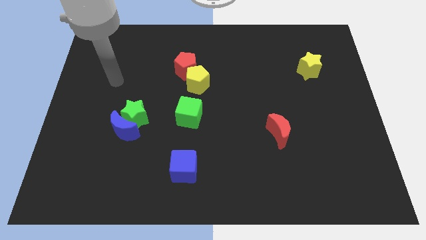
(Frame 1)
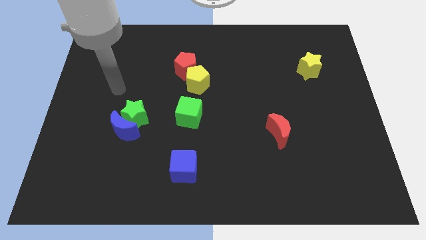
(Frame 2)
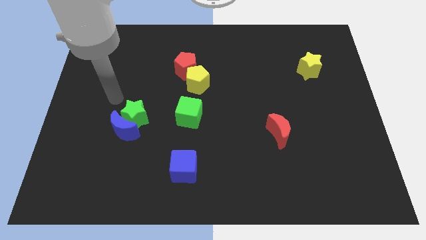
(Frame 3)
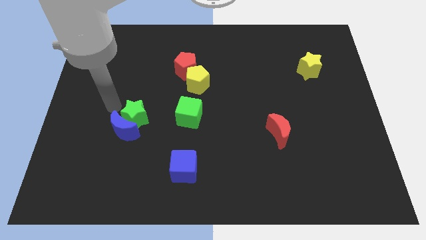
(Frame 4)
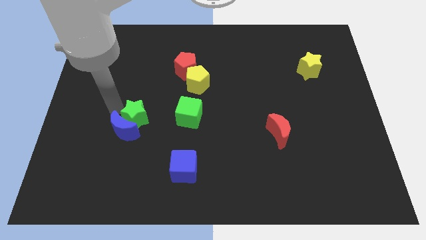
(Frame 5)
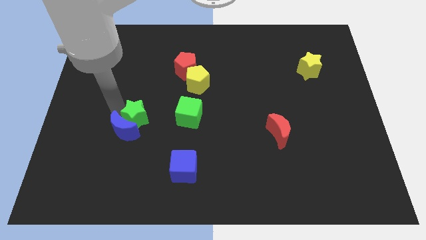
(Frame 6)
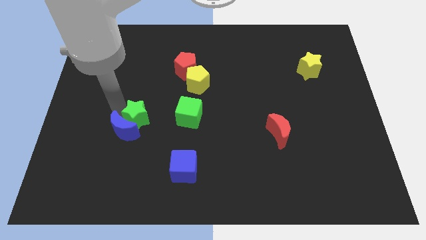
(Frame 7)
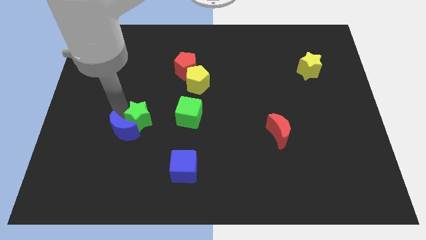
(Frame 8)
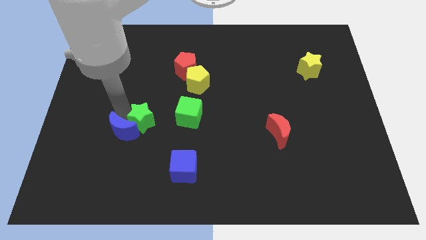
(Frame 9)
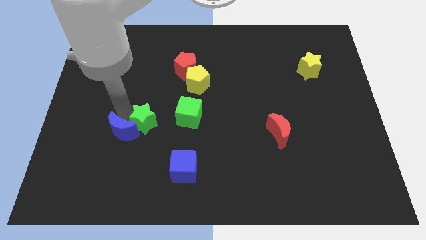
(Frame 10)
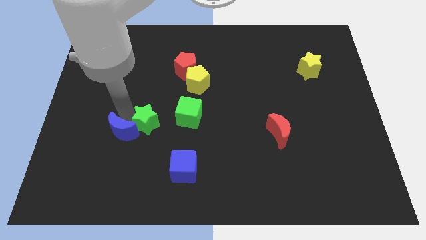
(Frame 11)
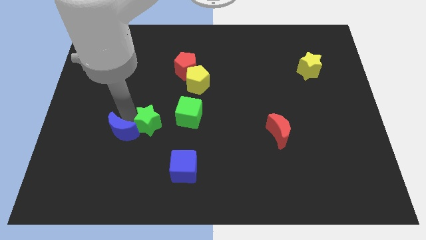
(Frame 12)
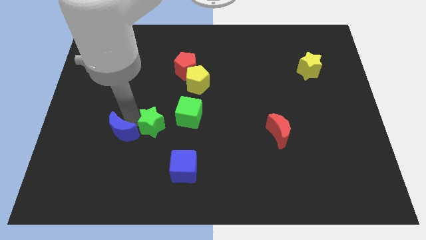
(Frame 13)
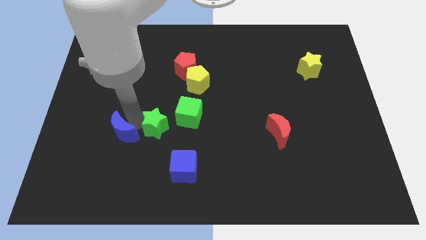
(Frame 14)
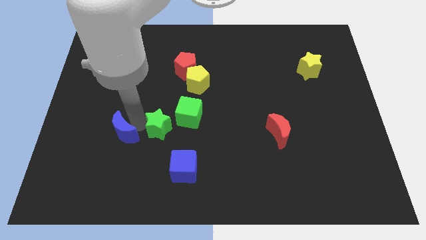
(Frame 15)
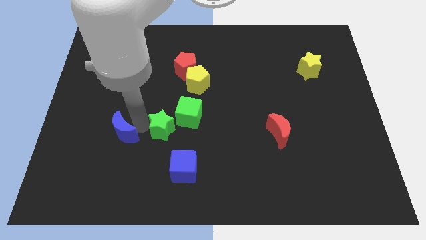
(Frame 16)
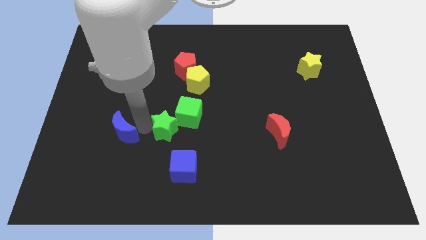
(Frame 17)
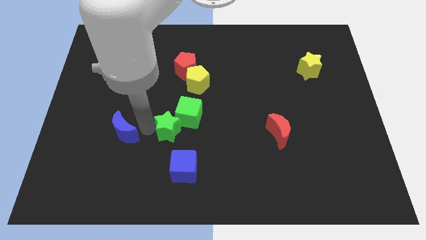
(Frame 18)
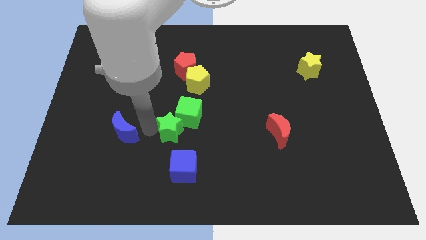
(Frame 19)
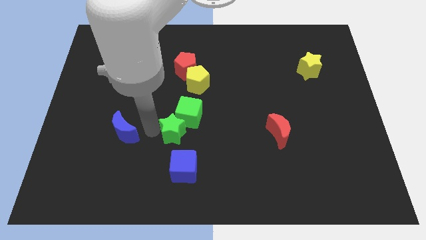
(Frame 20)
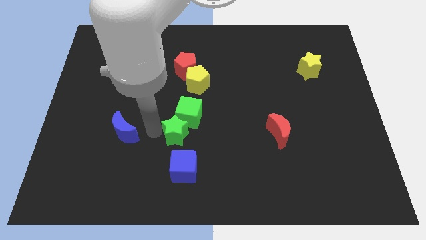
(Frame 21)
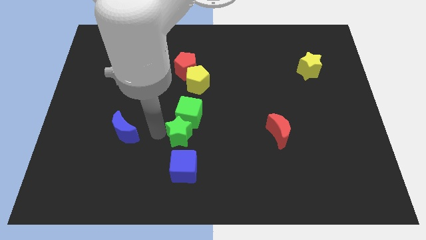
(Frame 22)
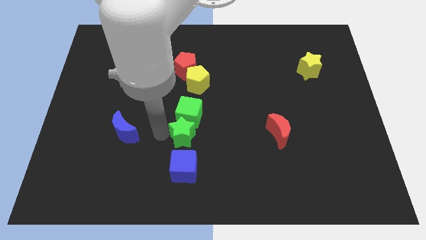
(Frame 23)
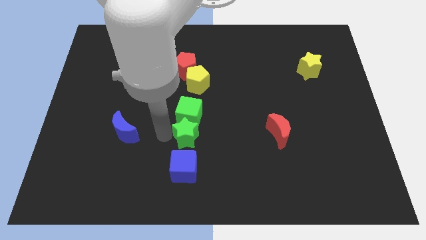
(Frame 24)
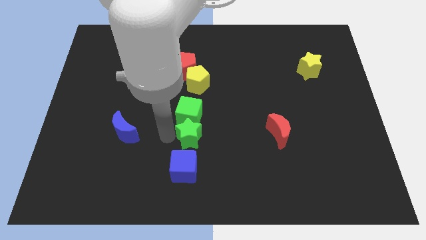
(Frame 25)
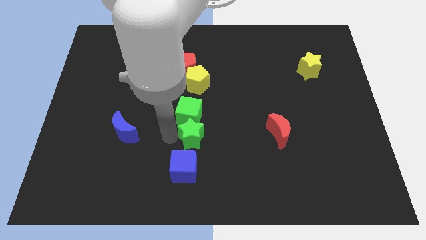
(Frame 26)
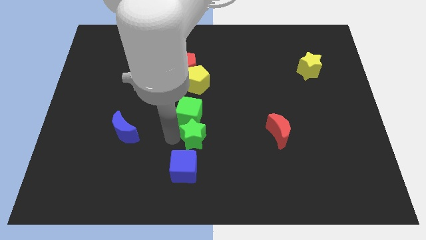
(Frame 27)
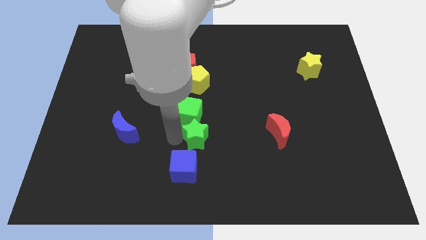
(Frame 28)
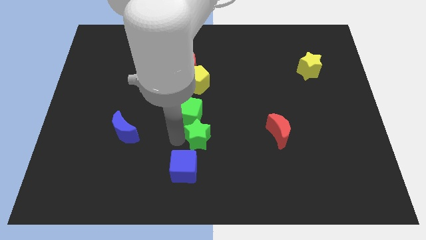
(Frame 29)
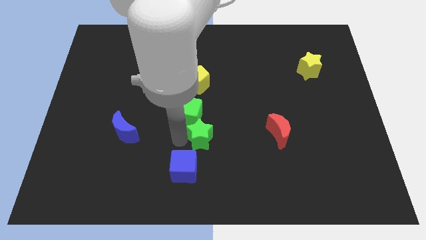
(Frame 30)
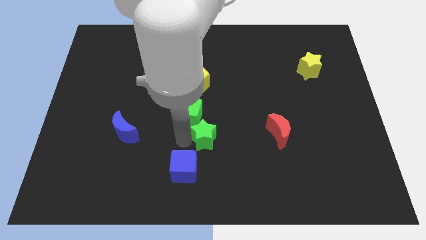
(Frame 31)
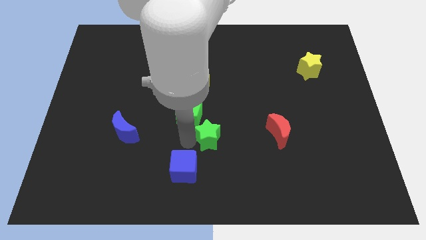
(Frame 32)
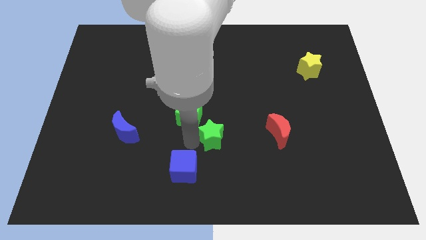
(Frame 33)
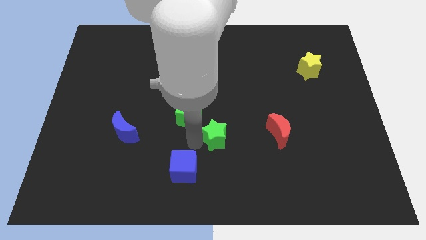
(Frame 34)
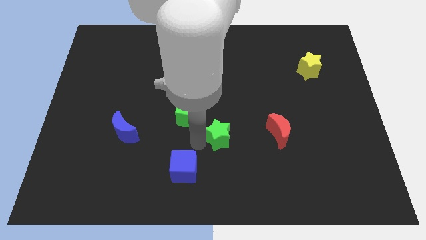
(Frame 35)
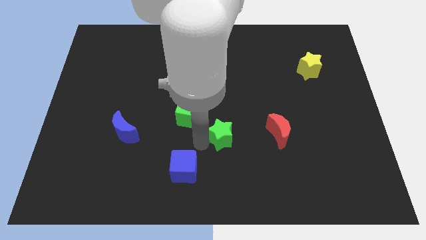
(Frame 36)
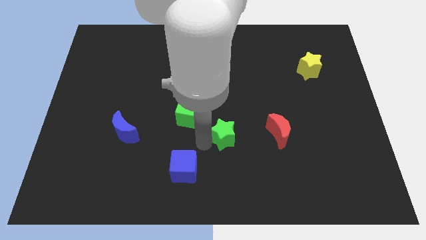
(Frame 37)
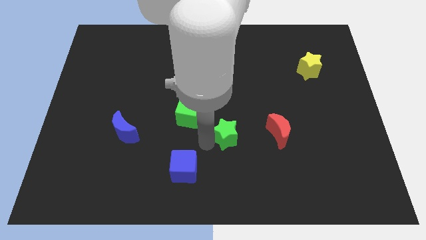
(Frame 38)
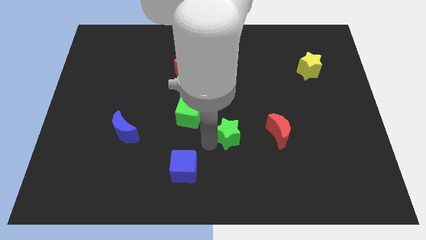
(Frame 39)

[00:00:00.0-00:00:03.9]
push the green star to the right

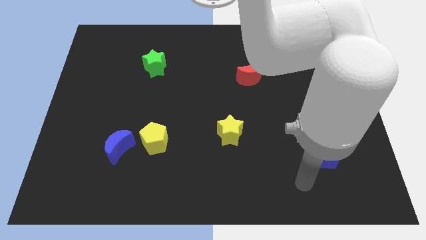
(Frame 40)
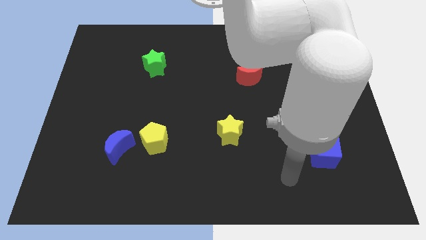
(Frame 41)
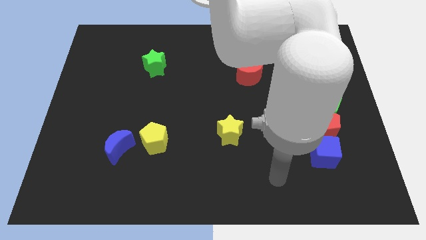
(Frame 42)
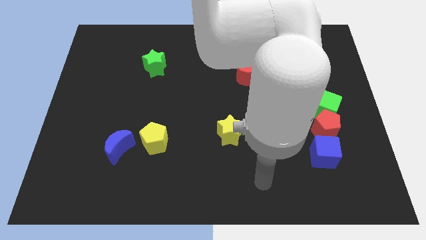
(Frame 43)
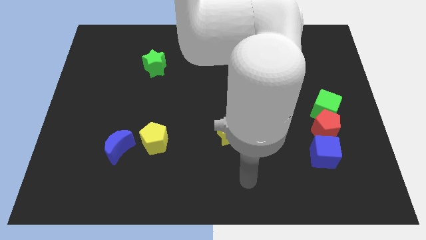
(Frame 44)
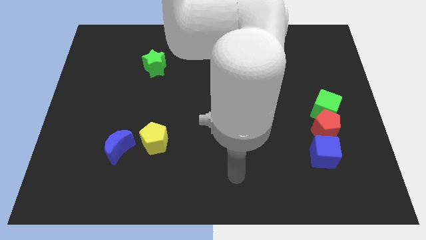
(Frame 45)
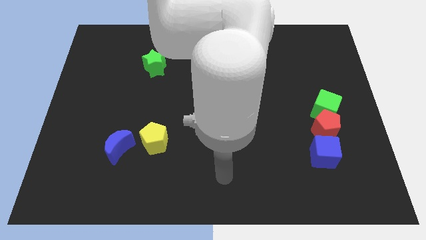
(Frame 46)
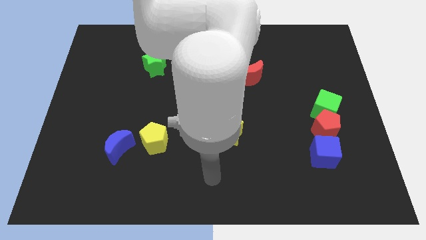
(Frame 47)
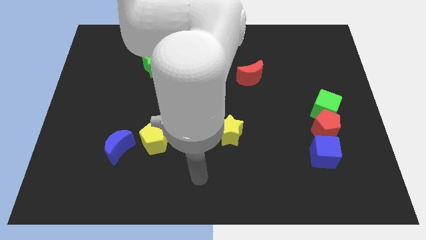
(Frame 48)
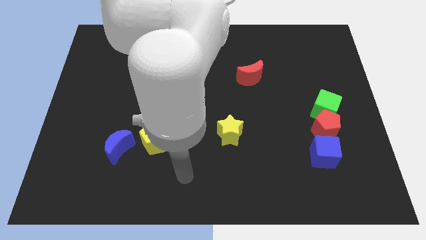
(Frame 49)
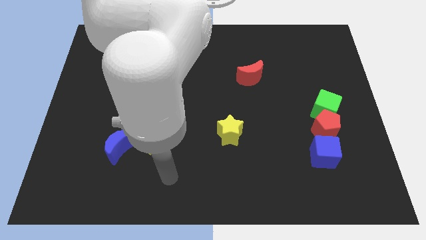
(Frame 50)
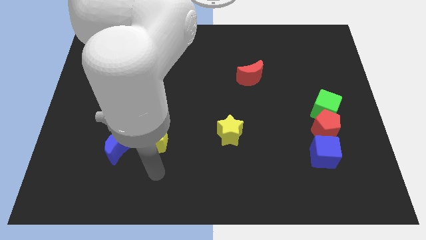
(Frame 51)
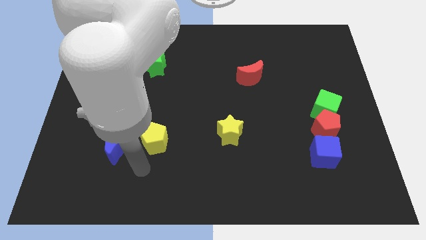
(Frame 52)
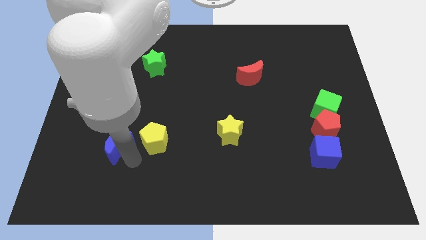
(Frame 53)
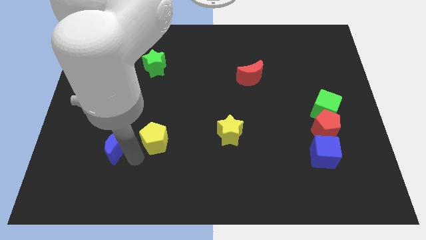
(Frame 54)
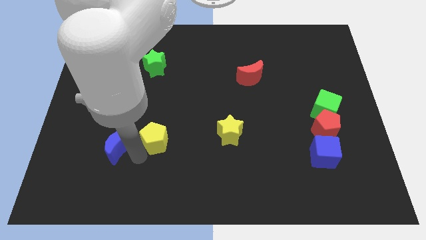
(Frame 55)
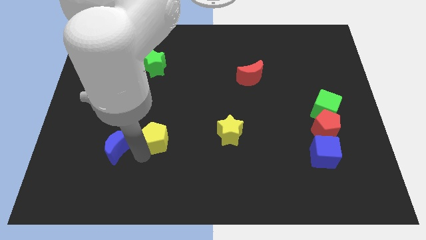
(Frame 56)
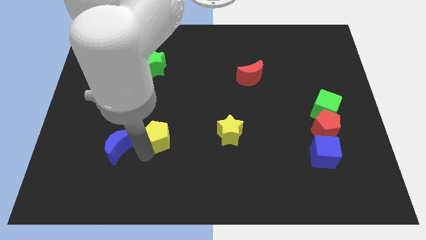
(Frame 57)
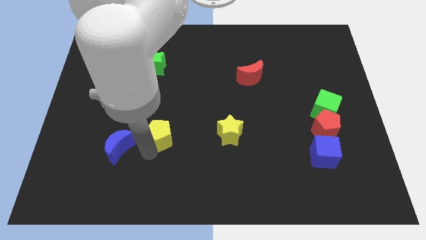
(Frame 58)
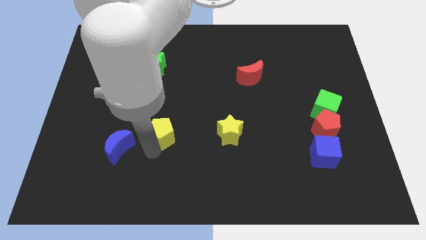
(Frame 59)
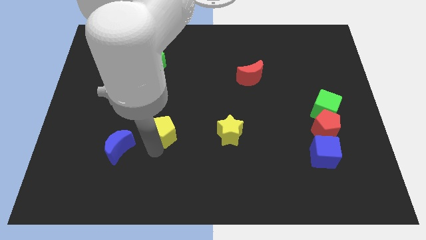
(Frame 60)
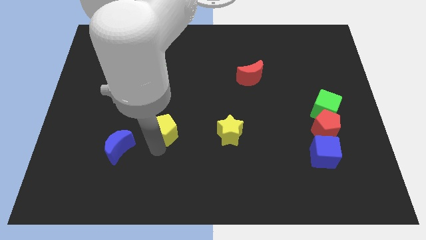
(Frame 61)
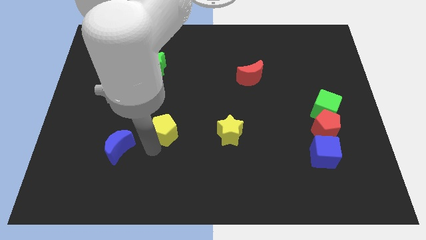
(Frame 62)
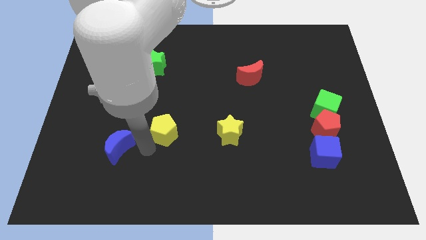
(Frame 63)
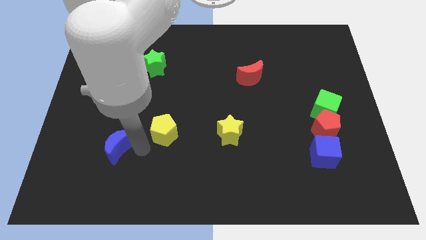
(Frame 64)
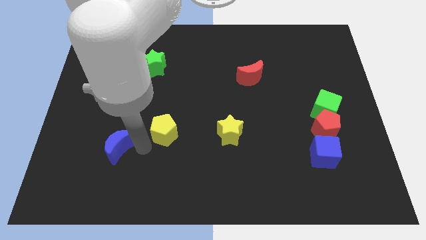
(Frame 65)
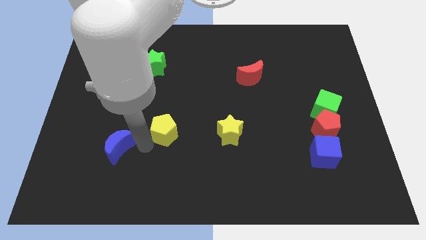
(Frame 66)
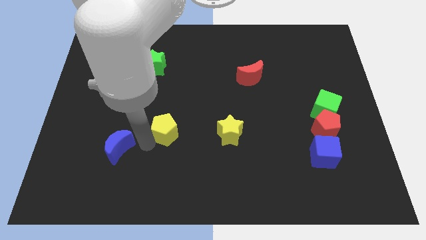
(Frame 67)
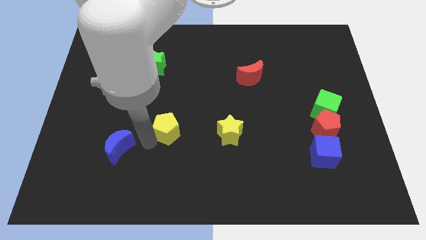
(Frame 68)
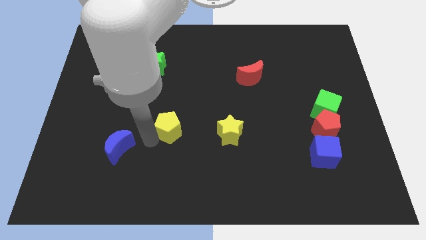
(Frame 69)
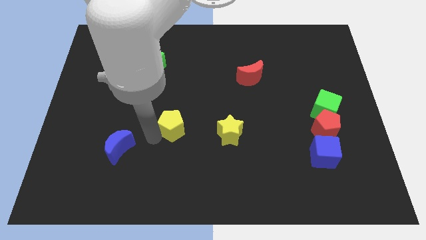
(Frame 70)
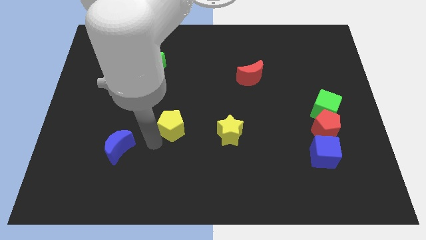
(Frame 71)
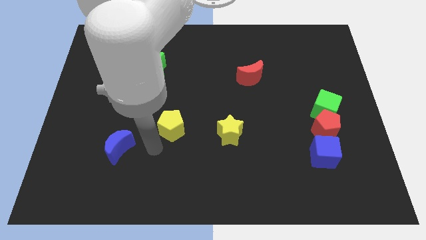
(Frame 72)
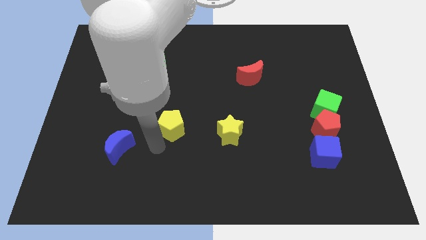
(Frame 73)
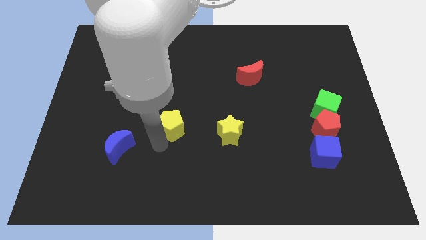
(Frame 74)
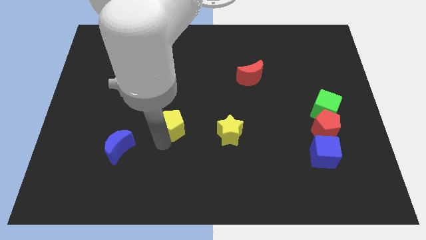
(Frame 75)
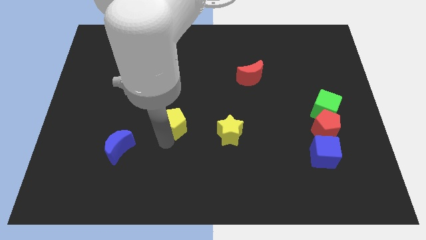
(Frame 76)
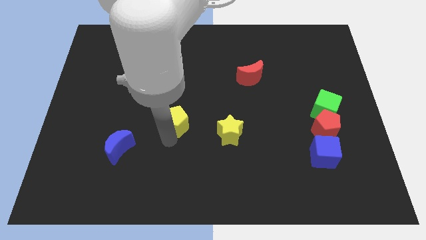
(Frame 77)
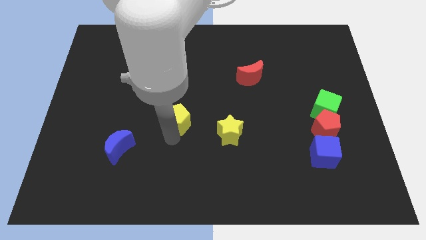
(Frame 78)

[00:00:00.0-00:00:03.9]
slide the yellow pentagon a little bit upwards and then to the right

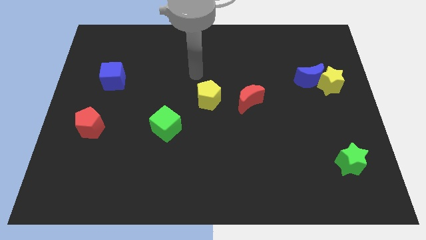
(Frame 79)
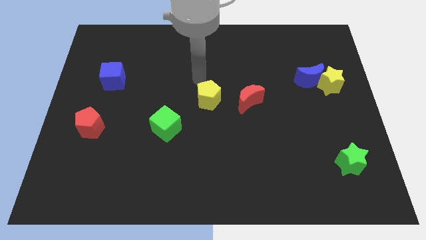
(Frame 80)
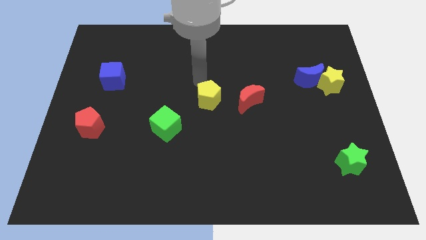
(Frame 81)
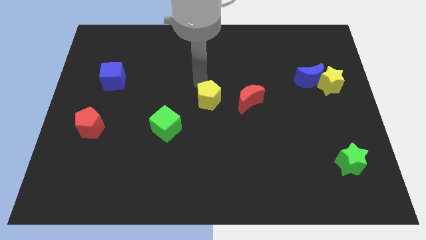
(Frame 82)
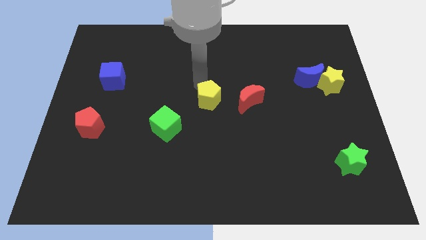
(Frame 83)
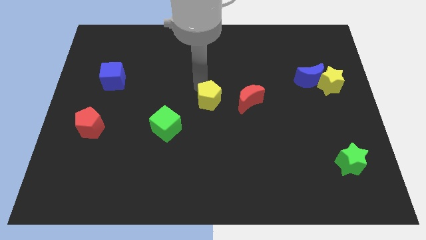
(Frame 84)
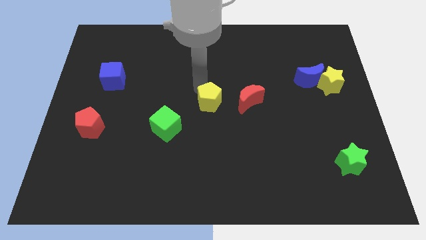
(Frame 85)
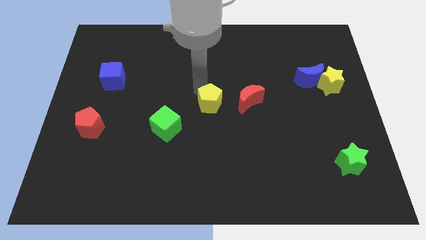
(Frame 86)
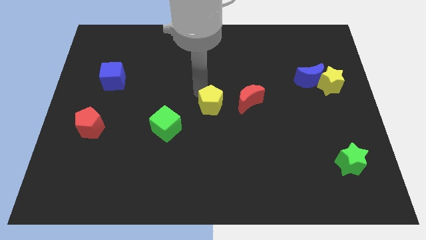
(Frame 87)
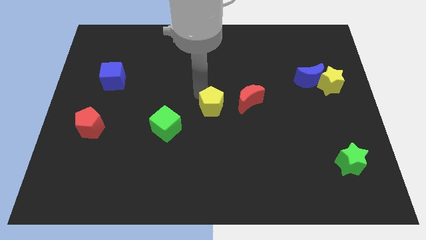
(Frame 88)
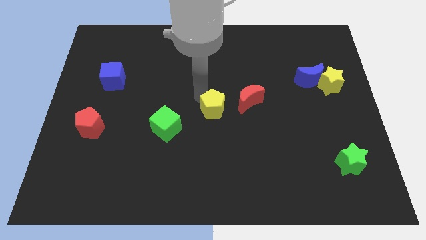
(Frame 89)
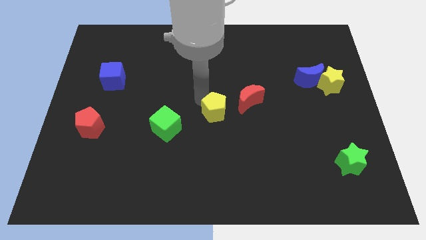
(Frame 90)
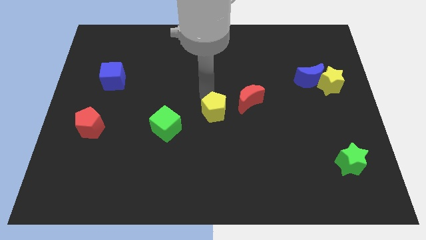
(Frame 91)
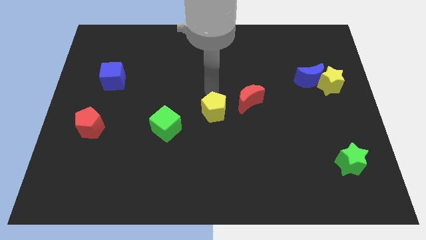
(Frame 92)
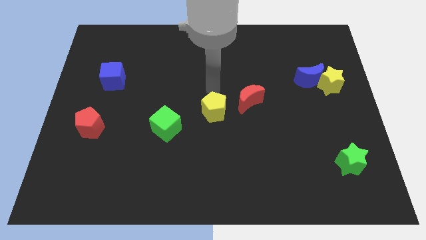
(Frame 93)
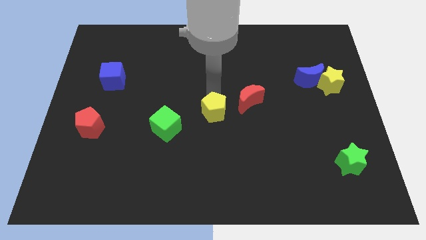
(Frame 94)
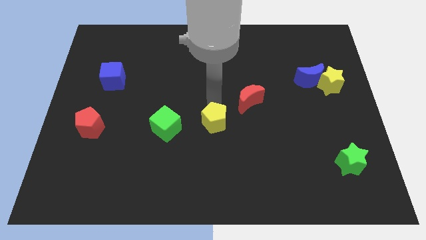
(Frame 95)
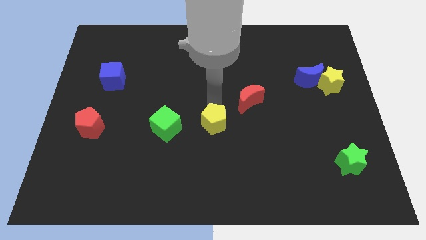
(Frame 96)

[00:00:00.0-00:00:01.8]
slightly push the yellow pentagon down
